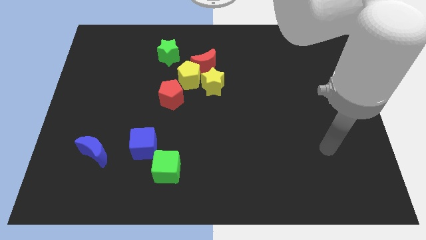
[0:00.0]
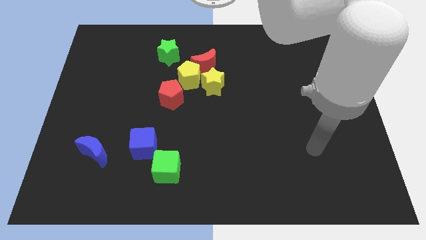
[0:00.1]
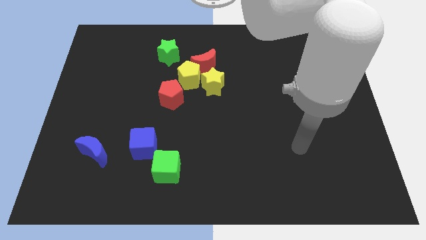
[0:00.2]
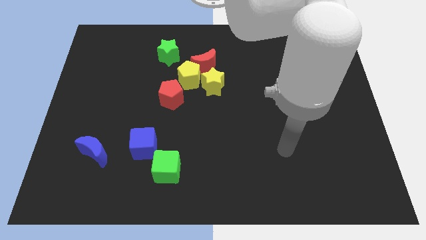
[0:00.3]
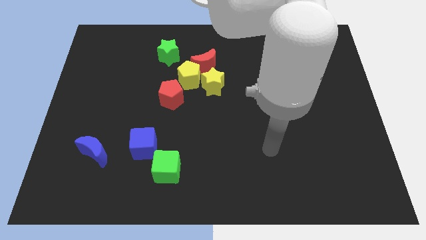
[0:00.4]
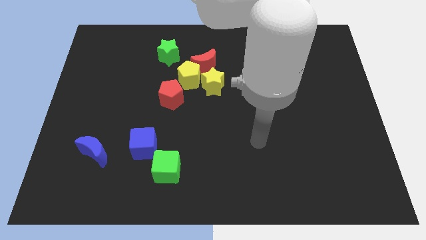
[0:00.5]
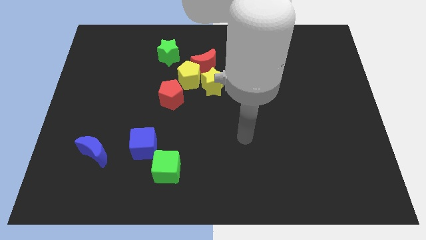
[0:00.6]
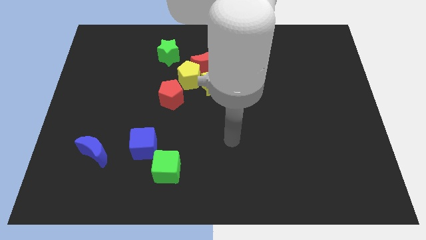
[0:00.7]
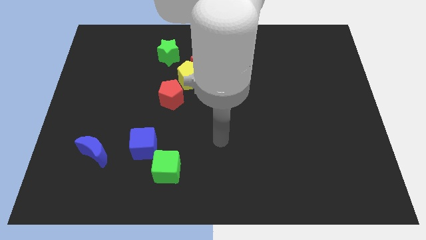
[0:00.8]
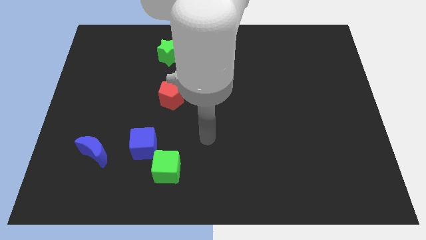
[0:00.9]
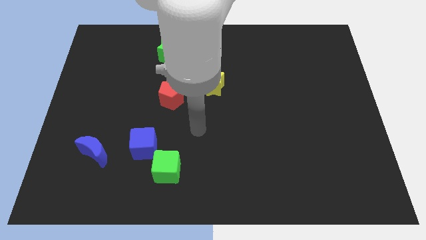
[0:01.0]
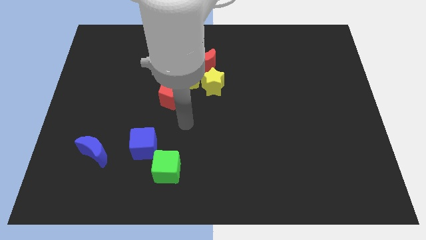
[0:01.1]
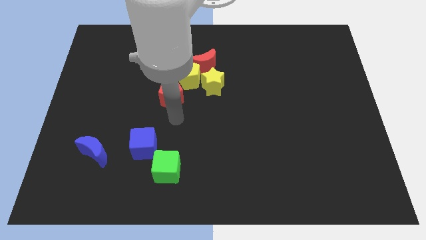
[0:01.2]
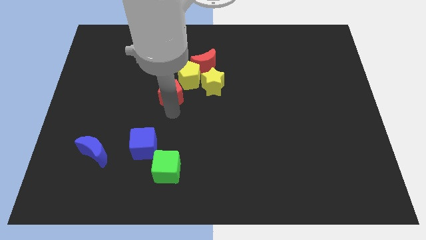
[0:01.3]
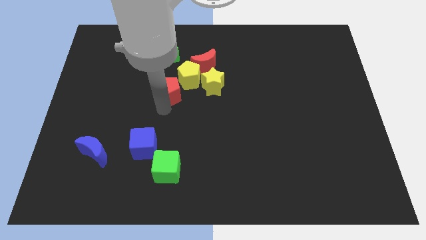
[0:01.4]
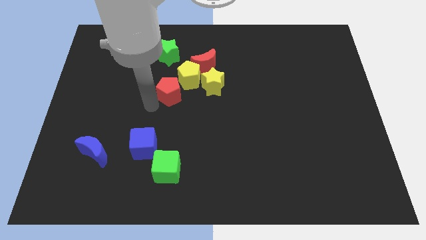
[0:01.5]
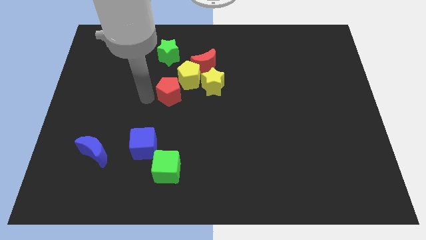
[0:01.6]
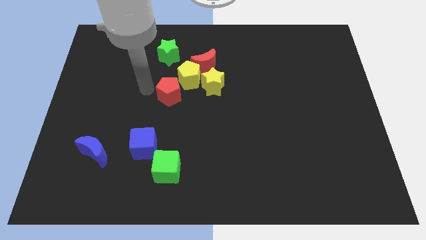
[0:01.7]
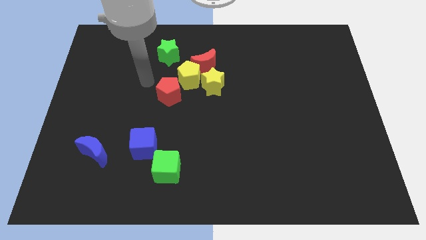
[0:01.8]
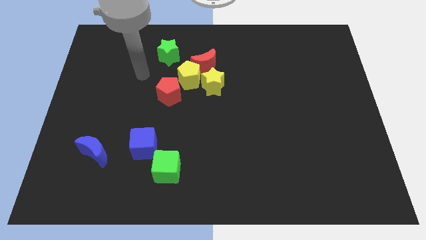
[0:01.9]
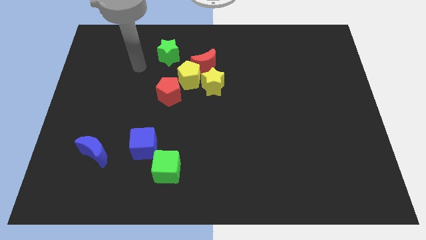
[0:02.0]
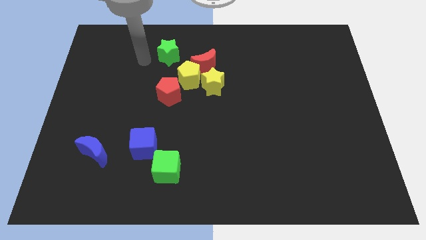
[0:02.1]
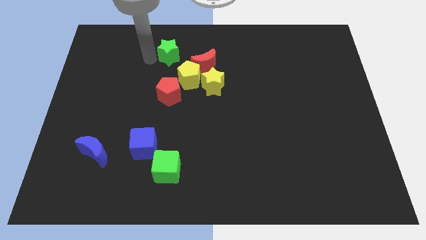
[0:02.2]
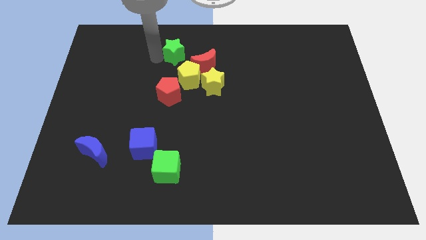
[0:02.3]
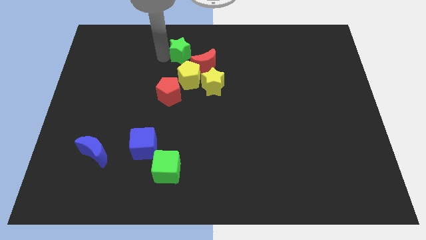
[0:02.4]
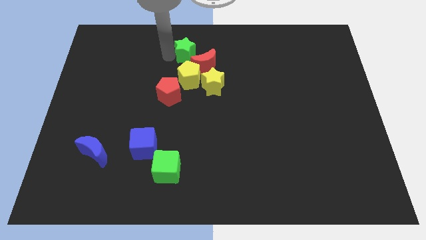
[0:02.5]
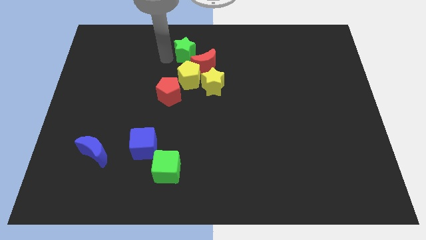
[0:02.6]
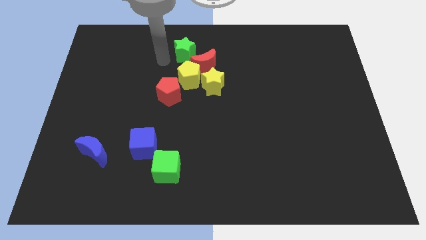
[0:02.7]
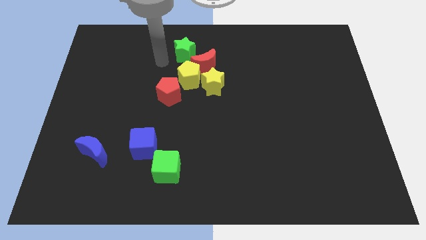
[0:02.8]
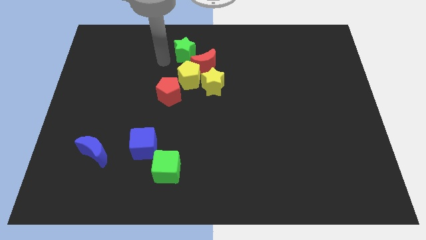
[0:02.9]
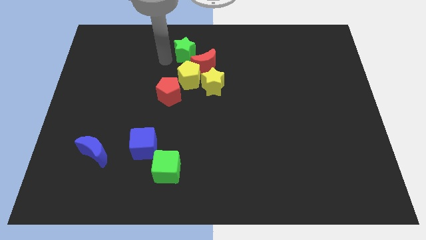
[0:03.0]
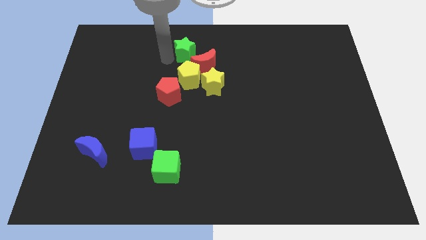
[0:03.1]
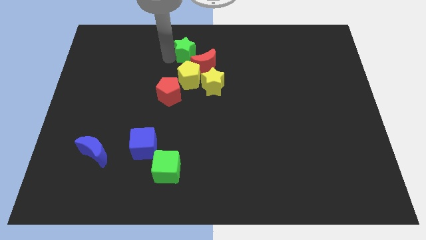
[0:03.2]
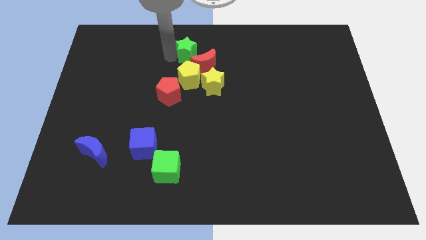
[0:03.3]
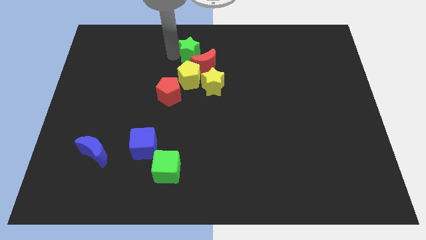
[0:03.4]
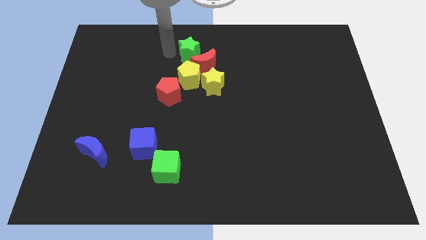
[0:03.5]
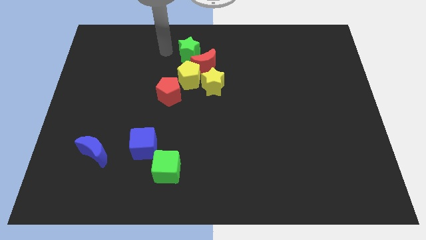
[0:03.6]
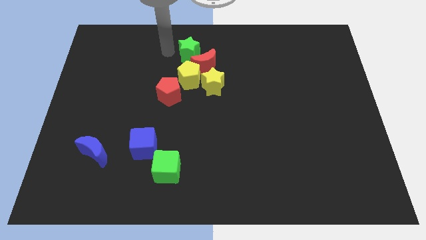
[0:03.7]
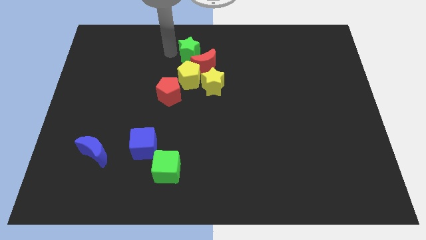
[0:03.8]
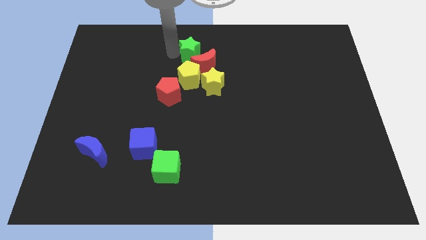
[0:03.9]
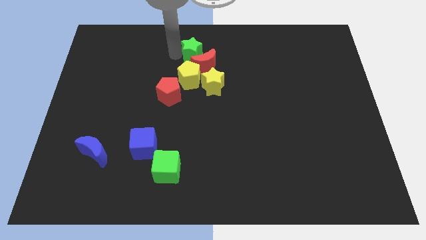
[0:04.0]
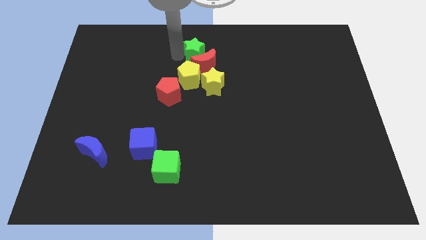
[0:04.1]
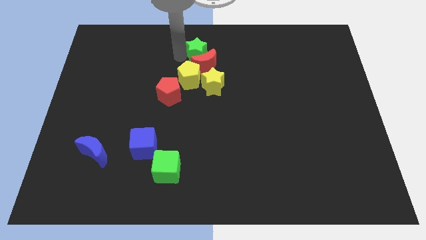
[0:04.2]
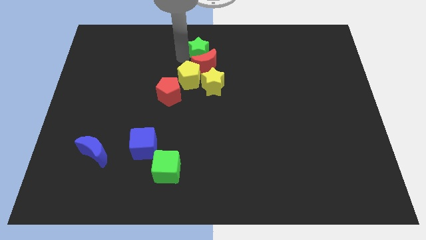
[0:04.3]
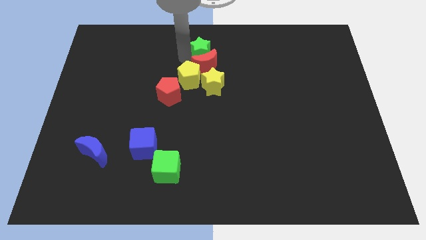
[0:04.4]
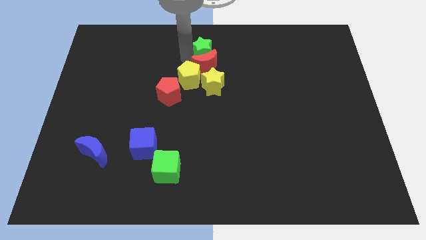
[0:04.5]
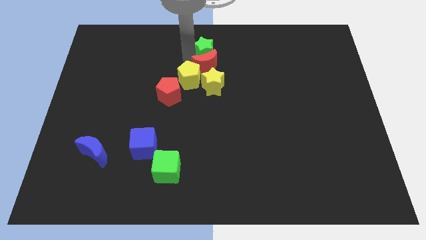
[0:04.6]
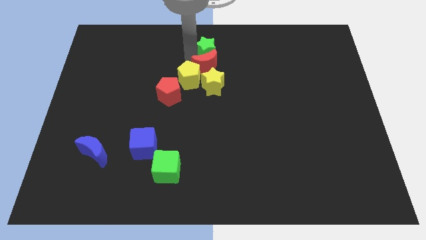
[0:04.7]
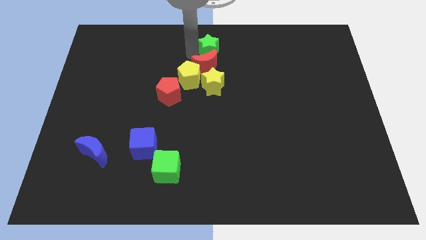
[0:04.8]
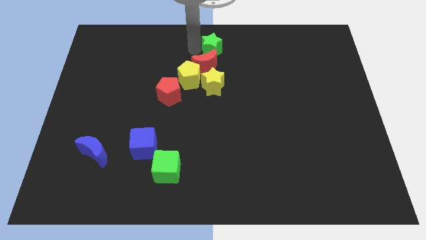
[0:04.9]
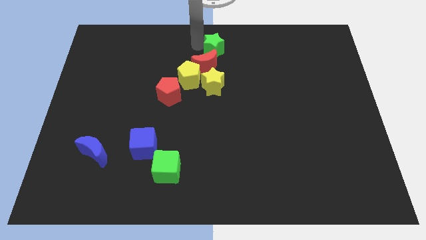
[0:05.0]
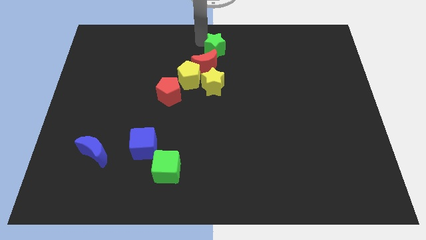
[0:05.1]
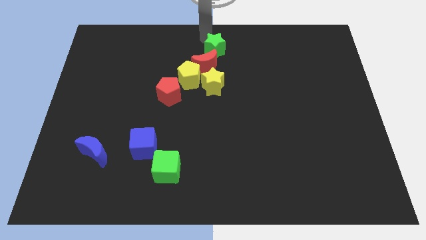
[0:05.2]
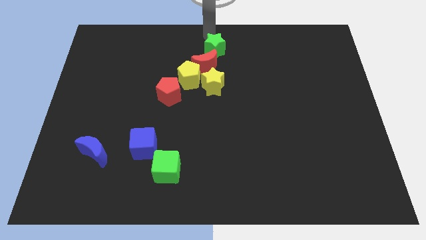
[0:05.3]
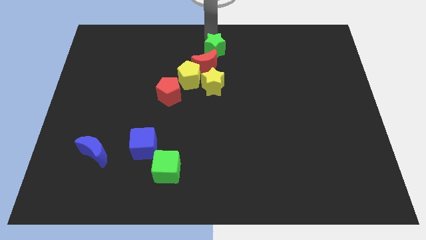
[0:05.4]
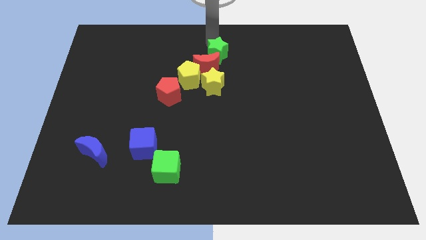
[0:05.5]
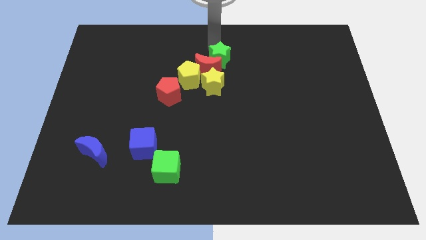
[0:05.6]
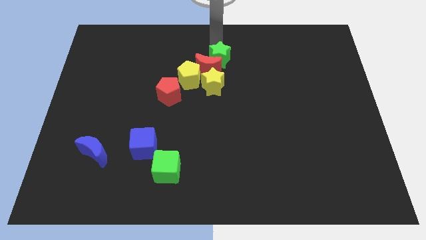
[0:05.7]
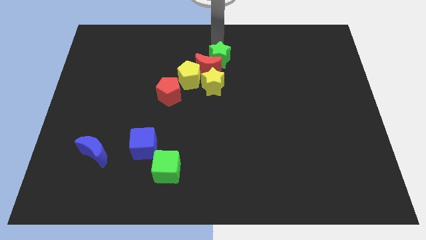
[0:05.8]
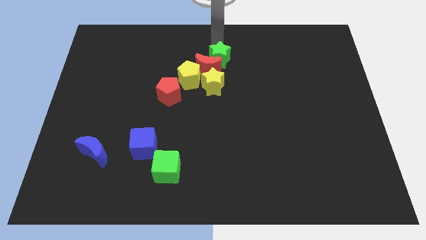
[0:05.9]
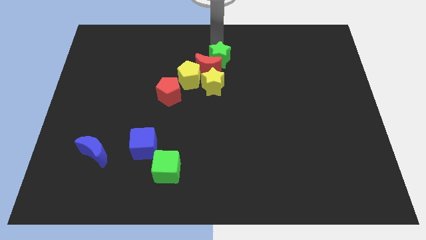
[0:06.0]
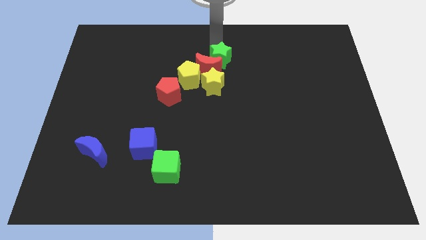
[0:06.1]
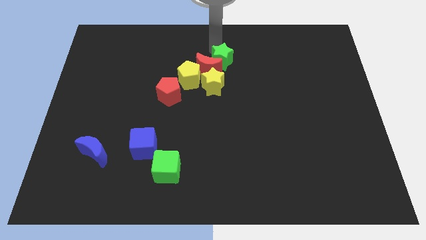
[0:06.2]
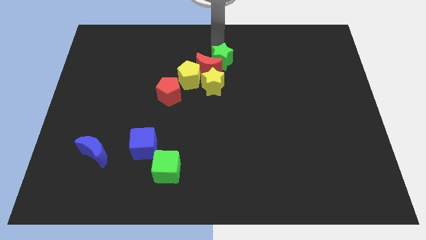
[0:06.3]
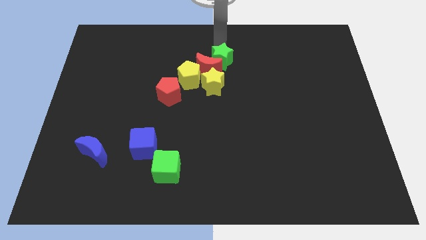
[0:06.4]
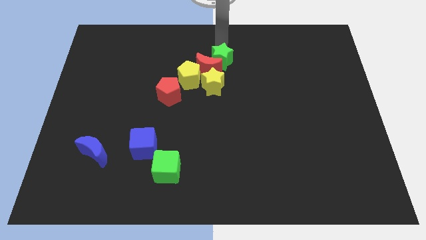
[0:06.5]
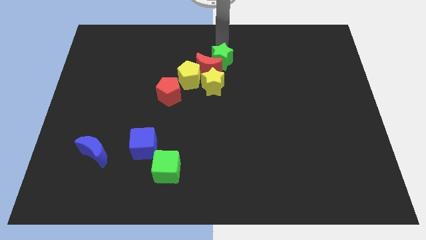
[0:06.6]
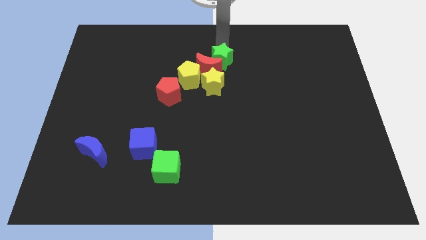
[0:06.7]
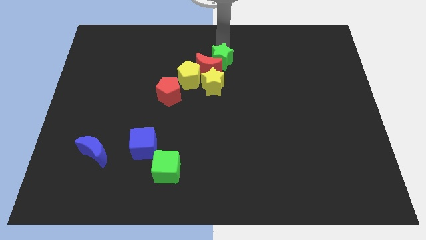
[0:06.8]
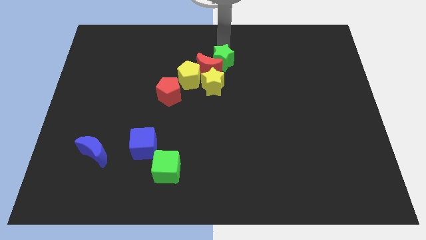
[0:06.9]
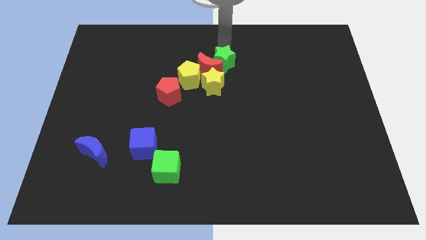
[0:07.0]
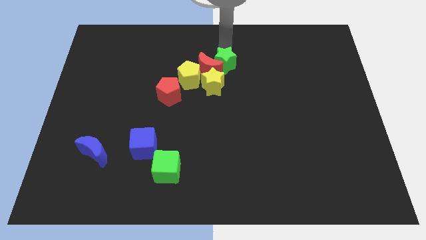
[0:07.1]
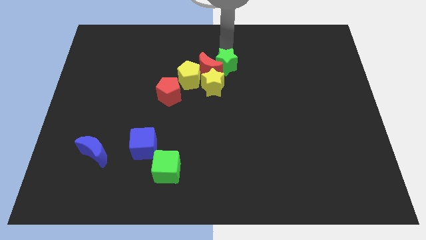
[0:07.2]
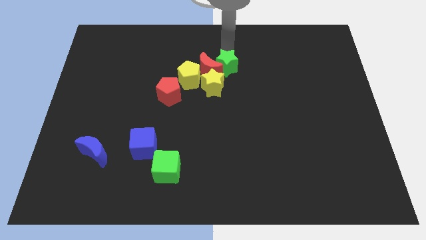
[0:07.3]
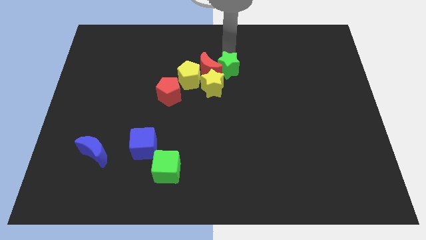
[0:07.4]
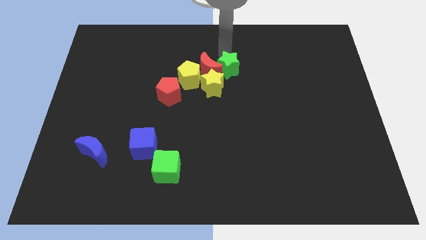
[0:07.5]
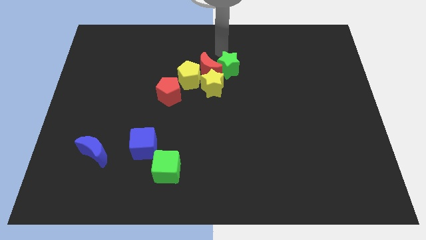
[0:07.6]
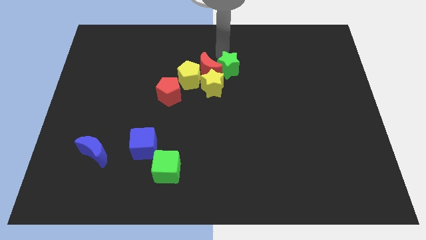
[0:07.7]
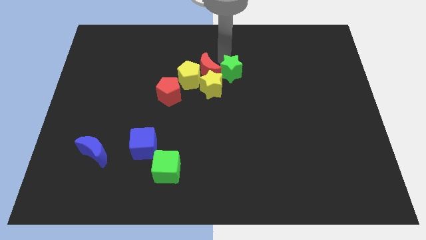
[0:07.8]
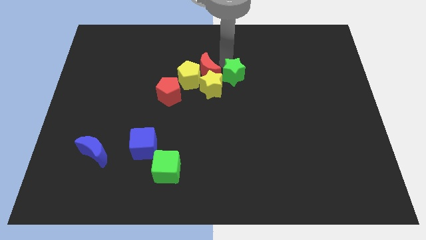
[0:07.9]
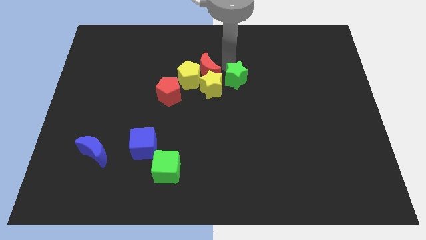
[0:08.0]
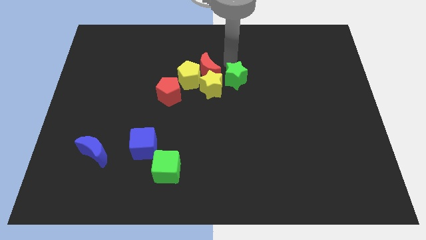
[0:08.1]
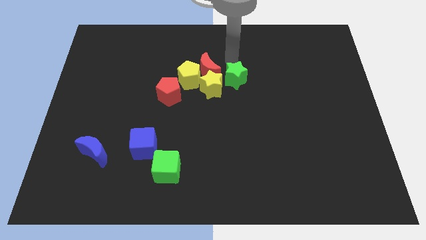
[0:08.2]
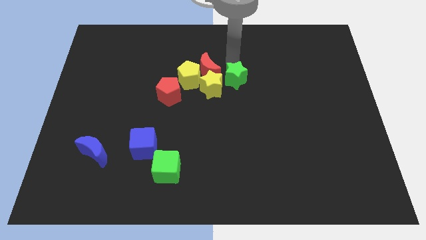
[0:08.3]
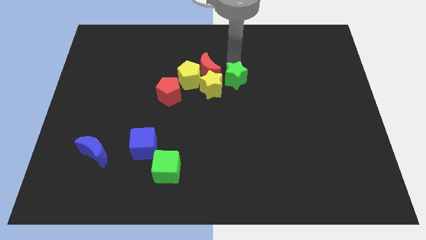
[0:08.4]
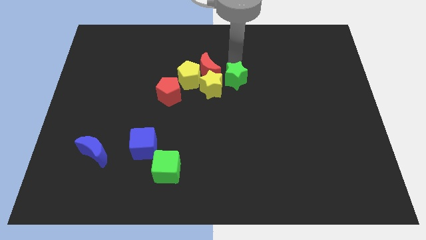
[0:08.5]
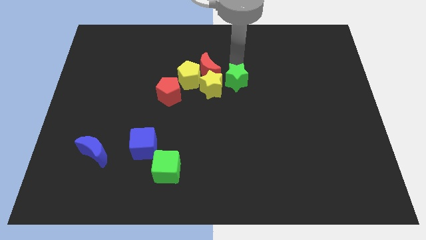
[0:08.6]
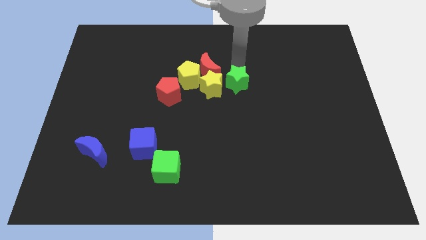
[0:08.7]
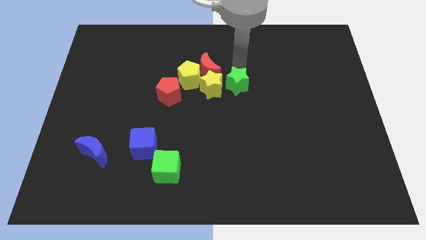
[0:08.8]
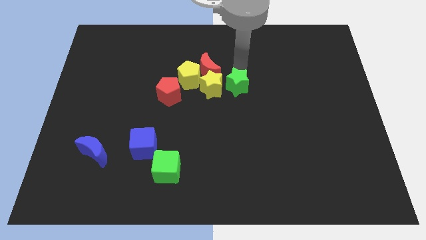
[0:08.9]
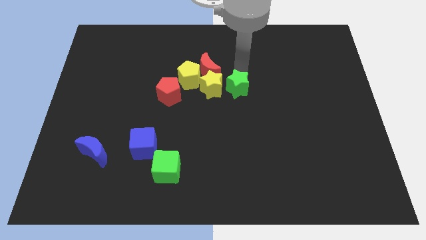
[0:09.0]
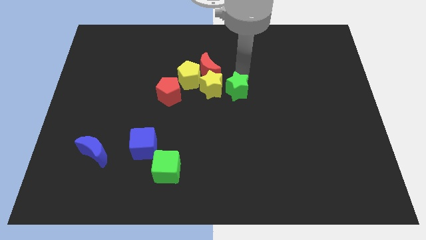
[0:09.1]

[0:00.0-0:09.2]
move the green star downwards and right
